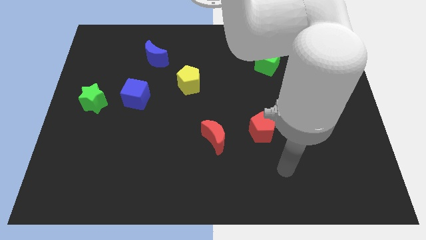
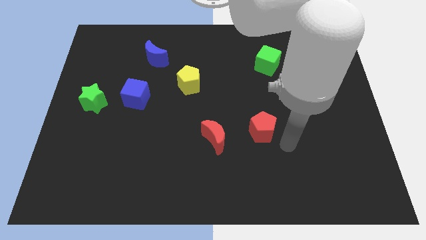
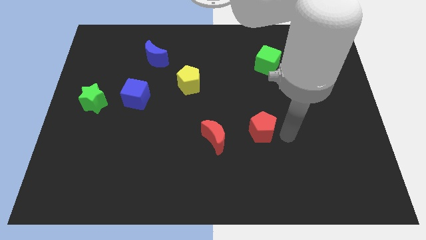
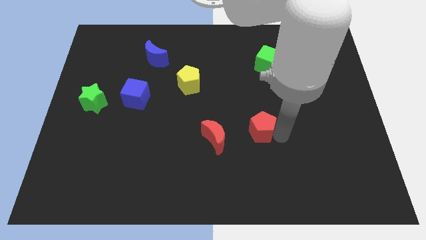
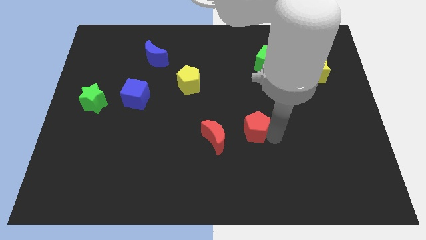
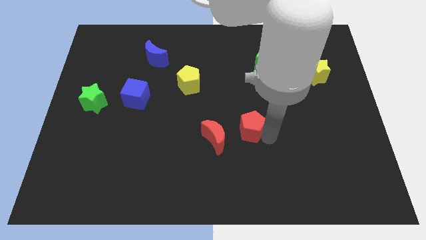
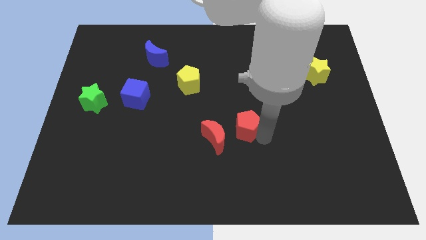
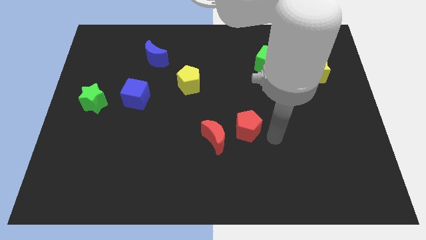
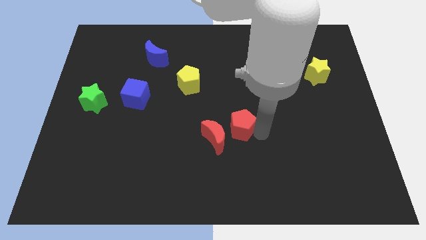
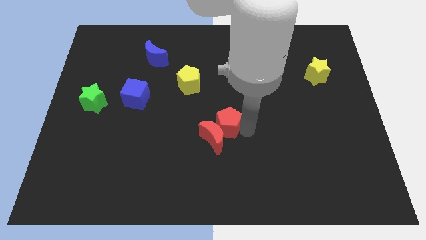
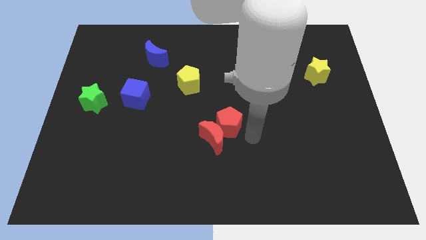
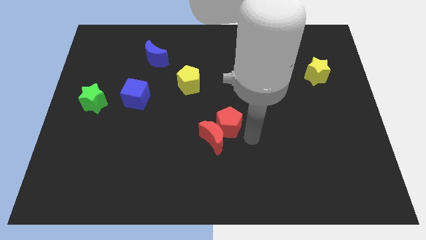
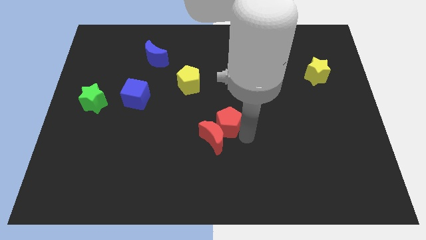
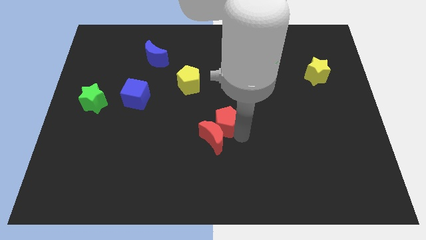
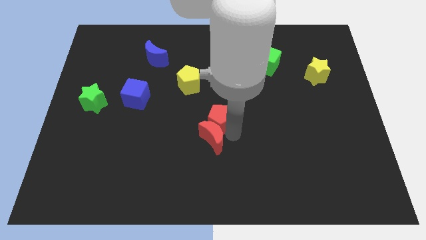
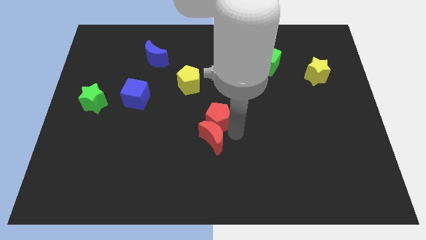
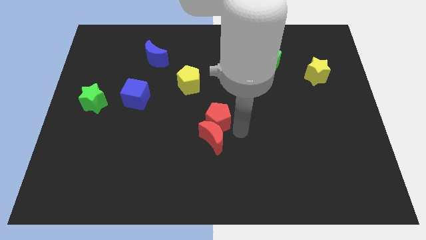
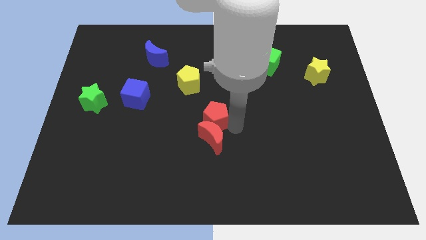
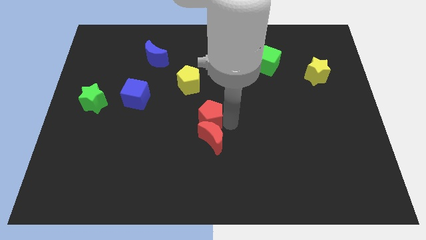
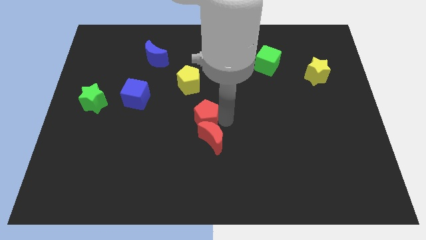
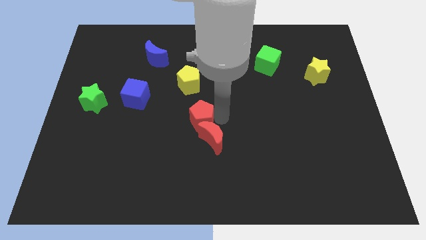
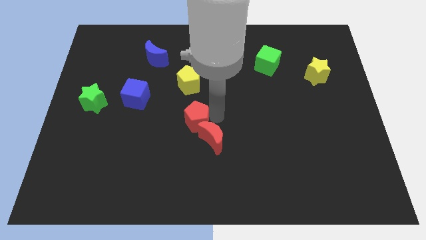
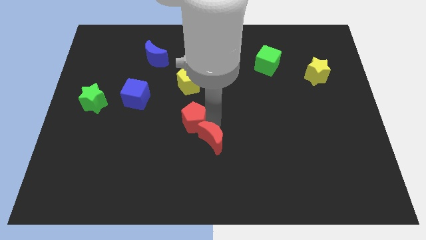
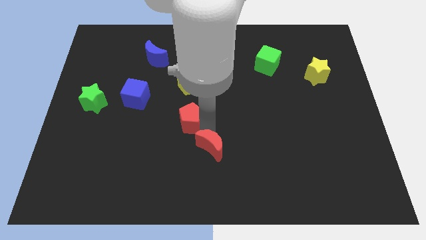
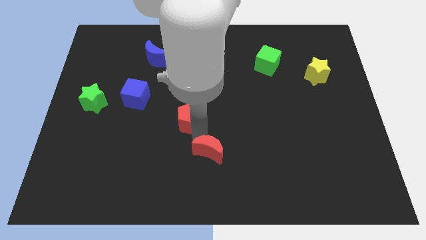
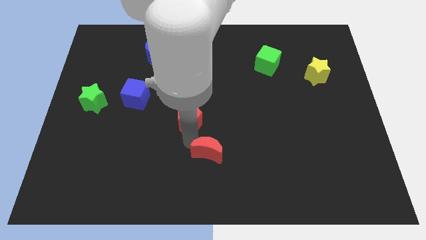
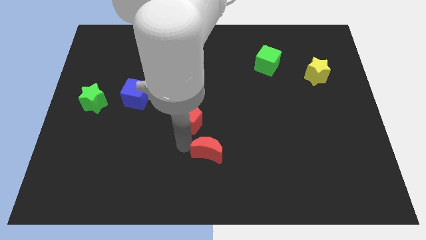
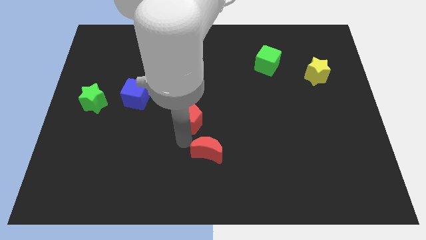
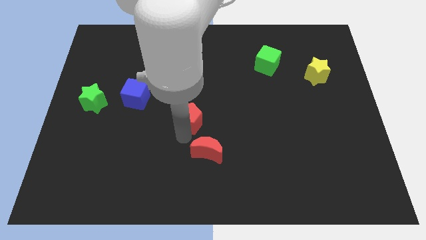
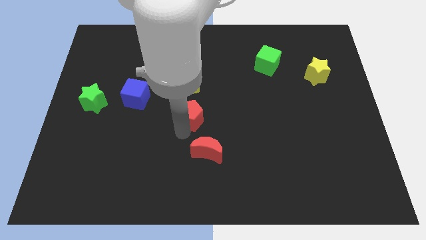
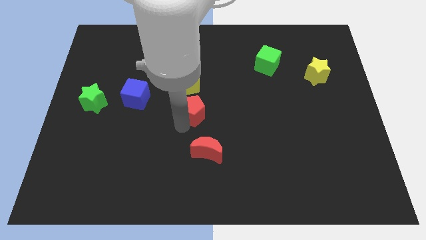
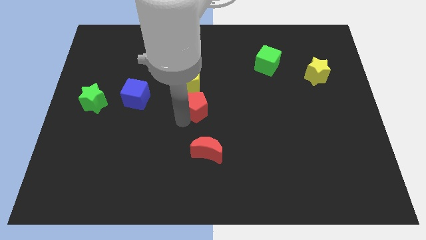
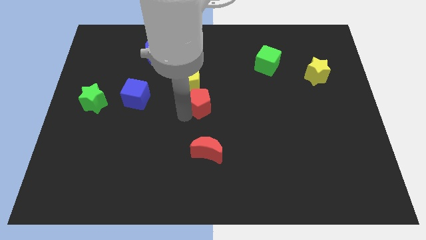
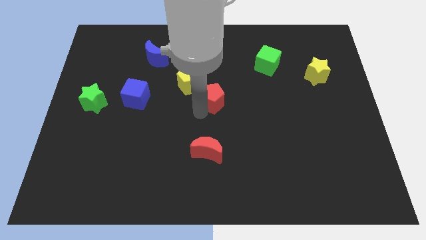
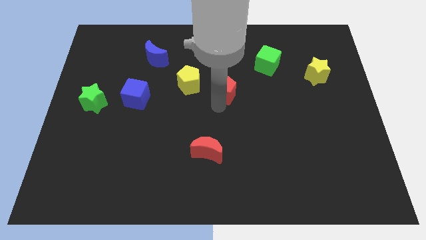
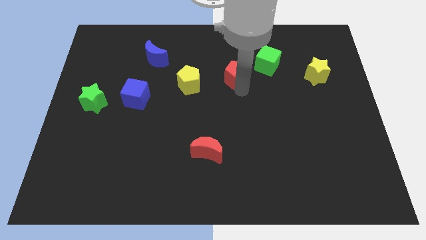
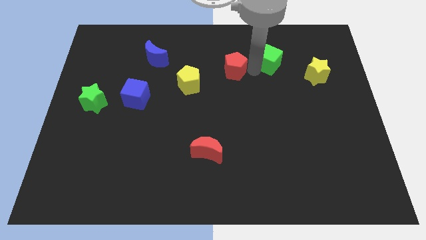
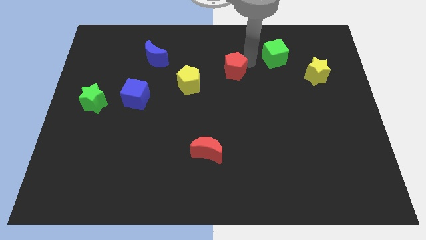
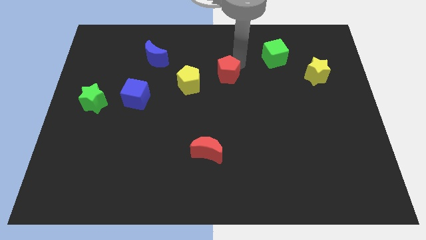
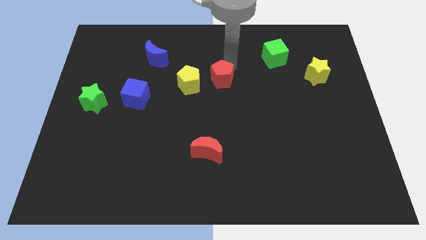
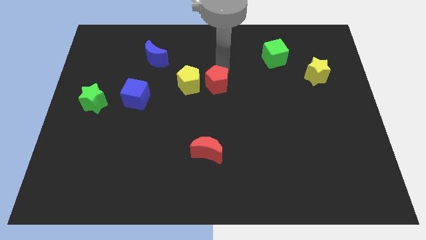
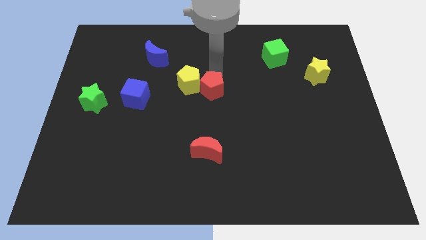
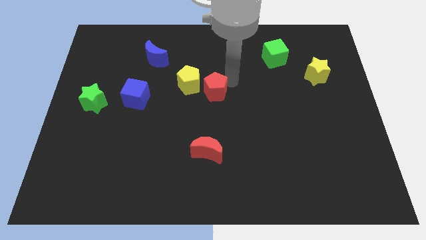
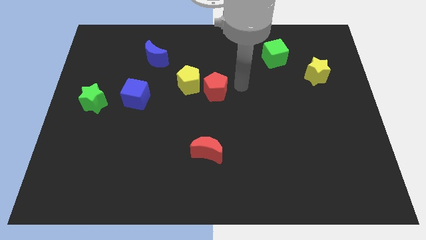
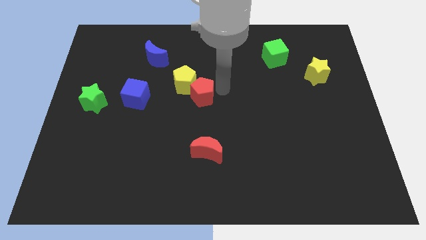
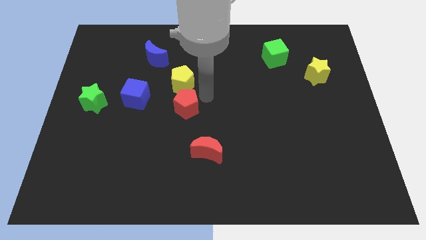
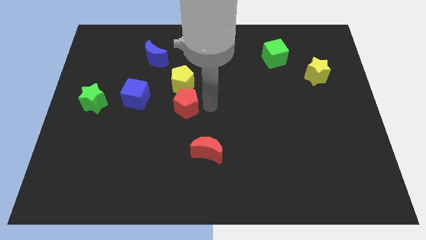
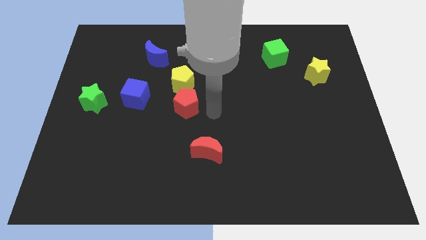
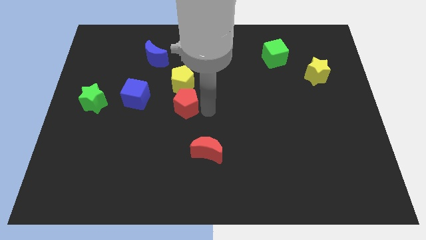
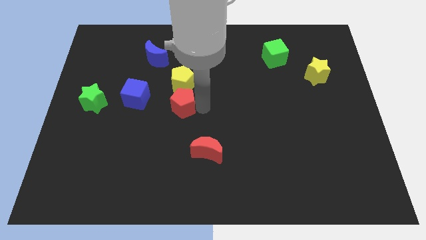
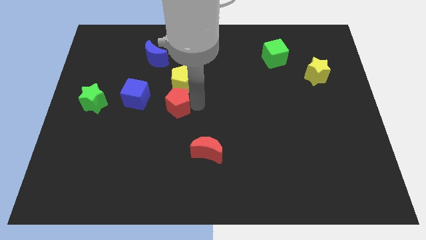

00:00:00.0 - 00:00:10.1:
put the red pentagon to the bottom left side of the yellow pentagon

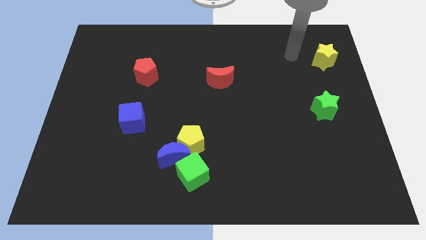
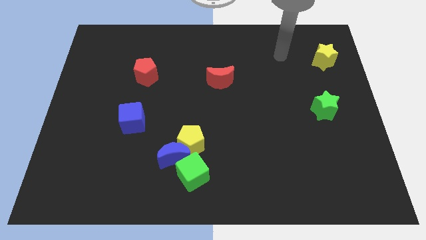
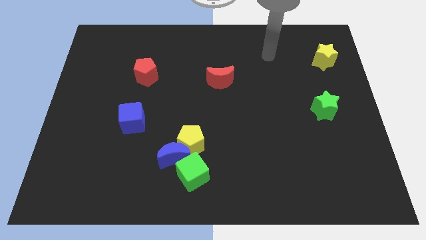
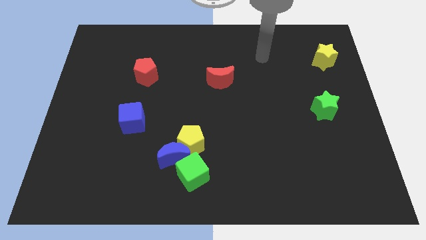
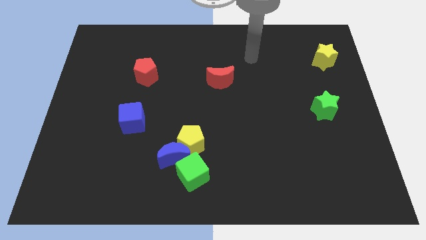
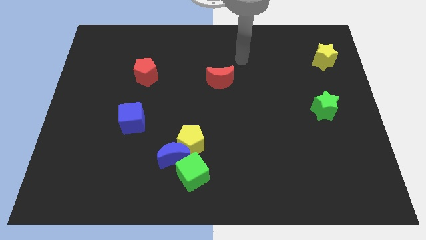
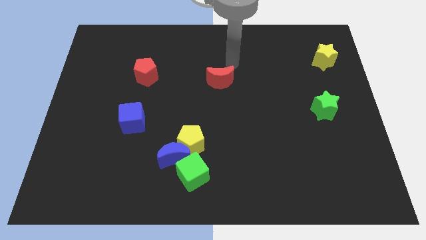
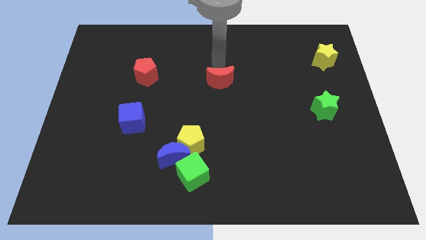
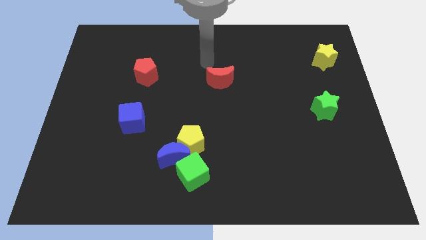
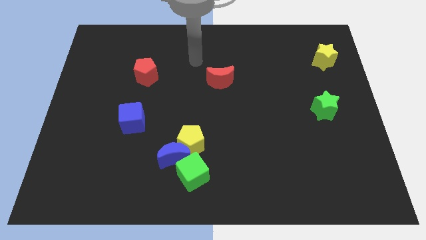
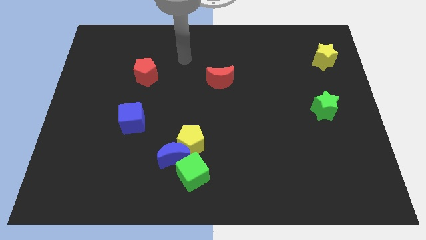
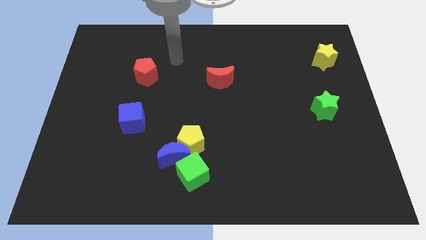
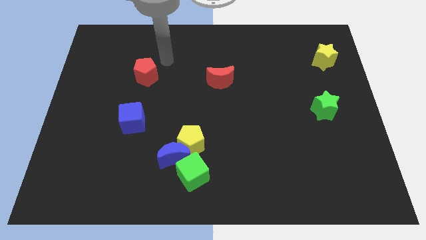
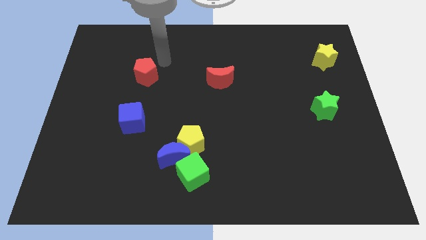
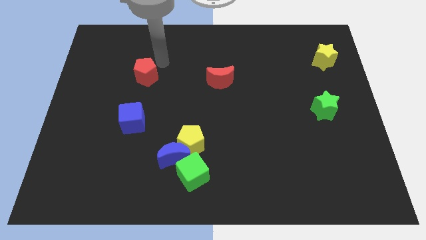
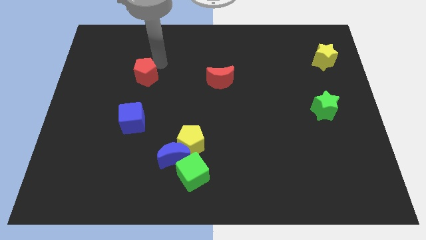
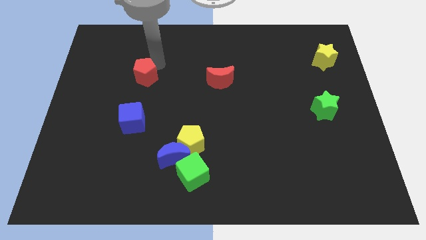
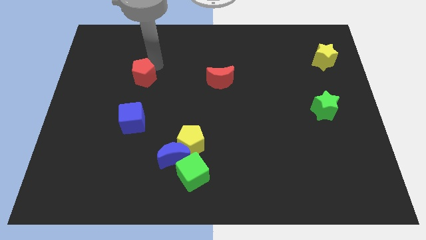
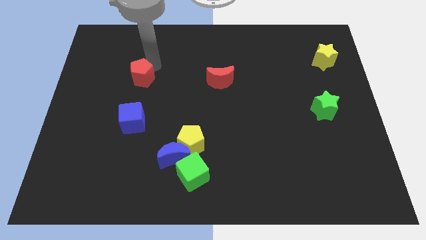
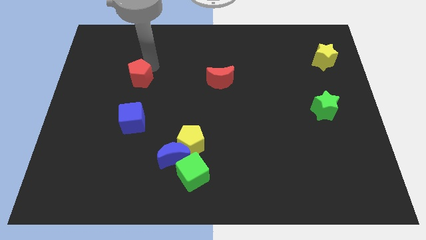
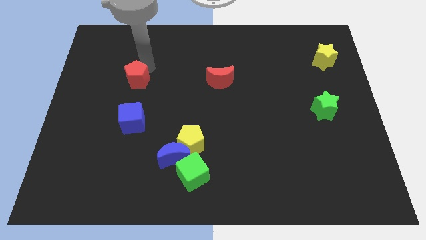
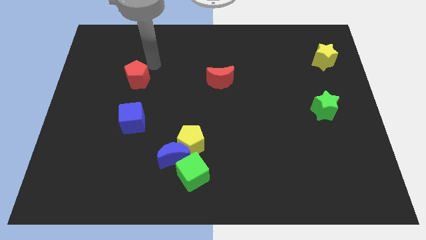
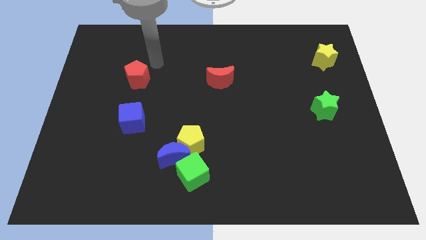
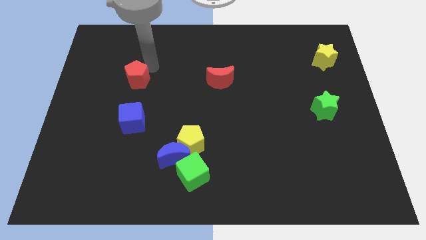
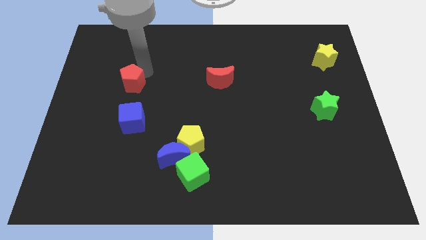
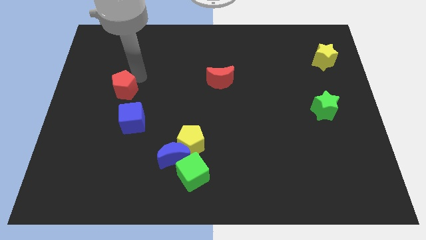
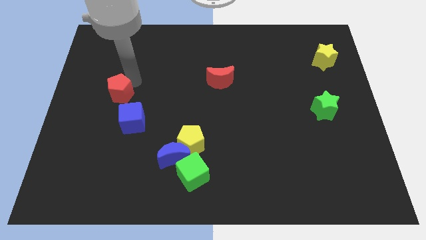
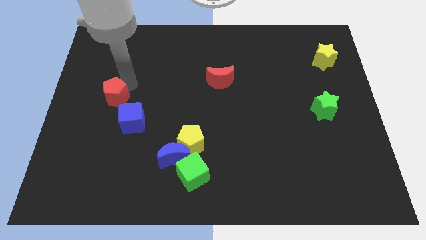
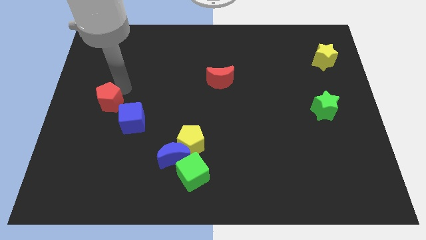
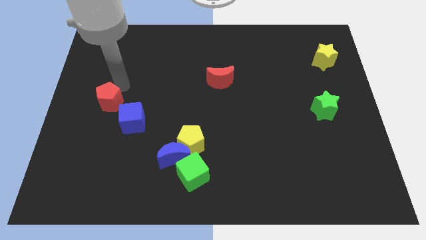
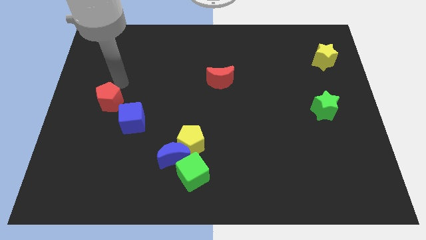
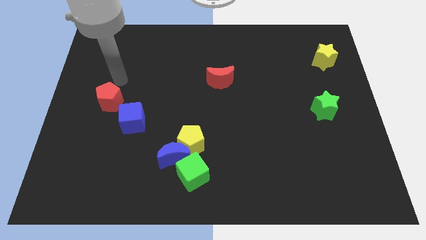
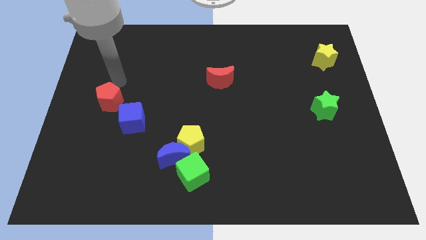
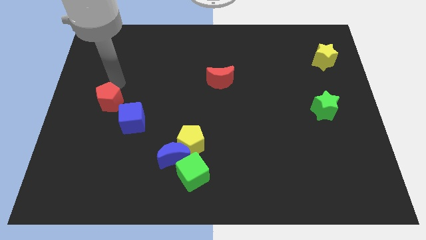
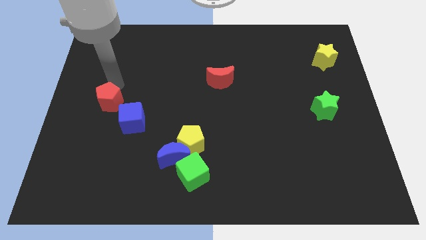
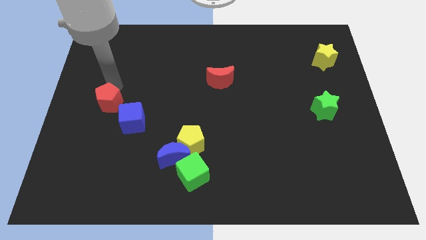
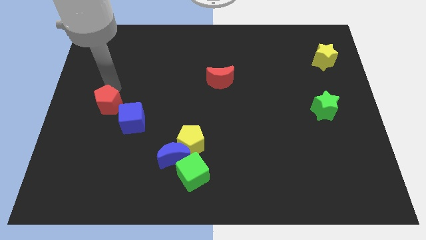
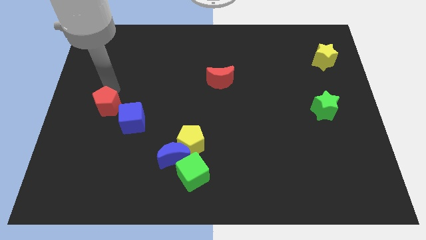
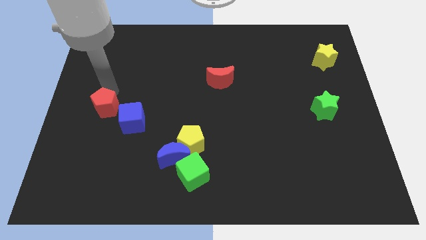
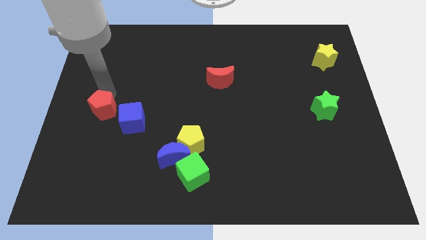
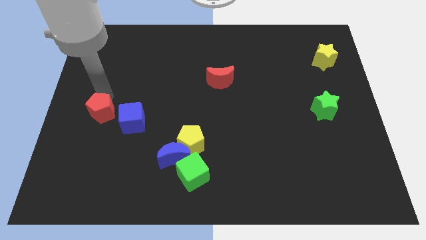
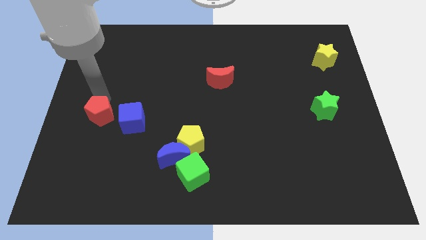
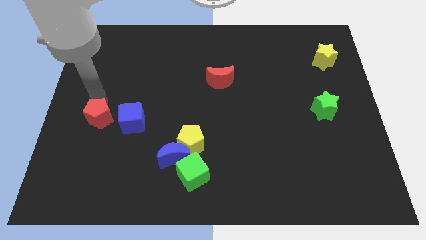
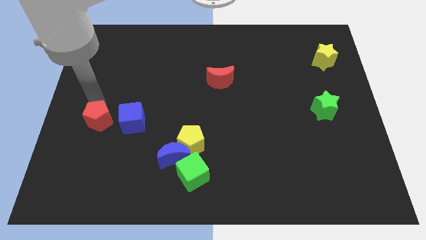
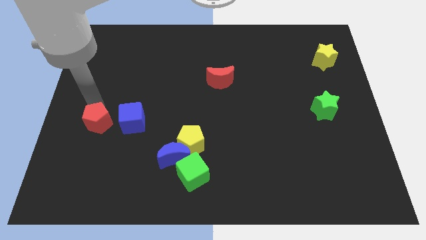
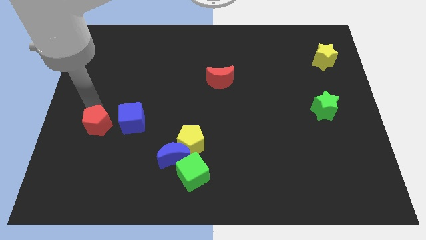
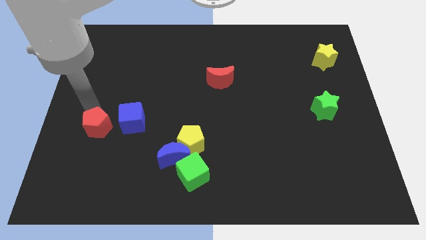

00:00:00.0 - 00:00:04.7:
slide the red pentagon to the bottom left of the blue cube
